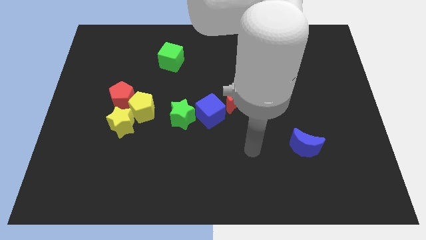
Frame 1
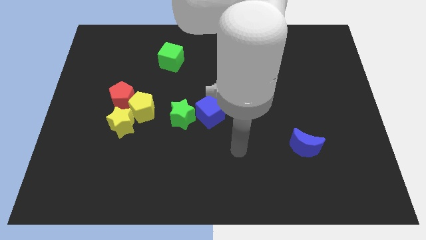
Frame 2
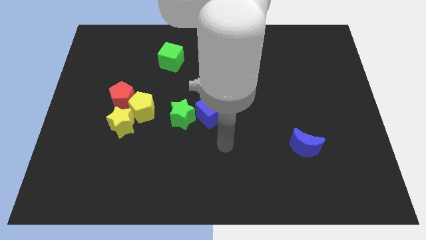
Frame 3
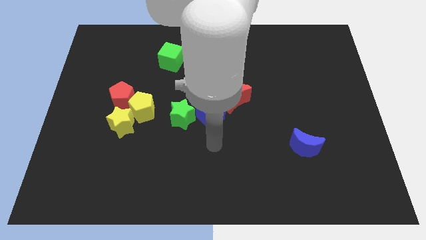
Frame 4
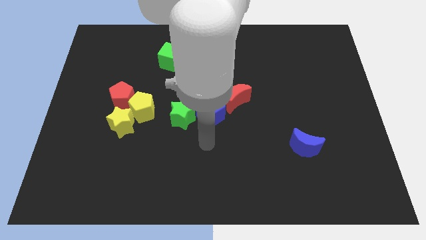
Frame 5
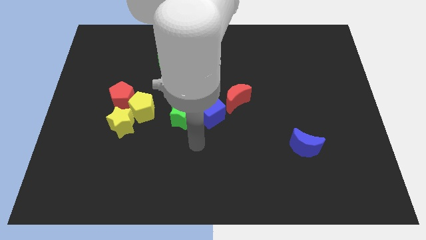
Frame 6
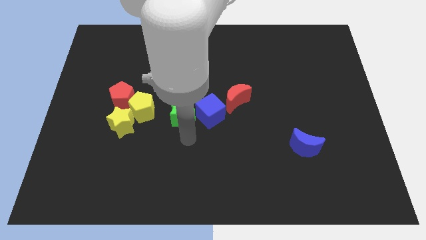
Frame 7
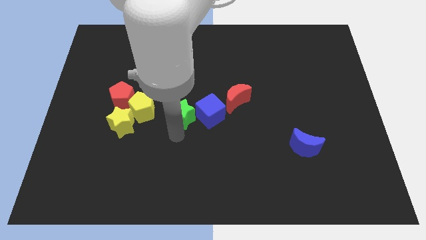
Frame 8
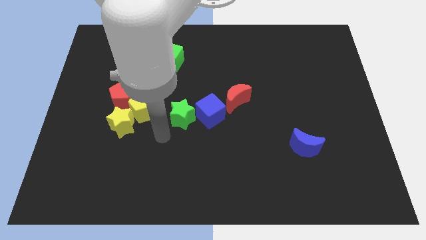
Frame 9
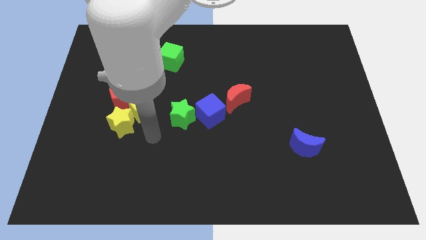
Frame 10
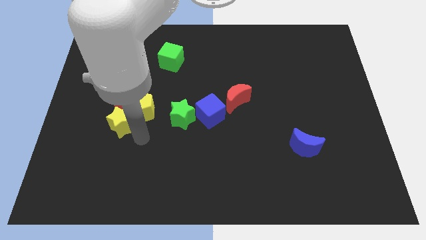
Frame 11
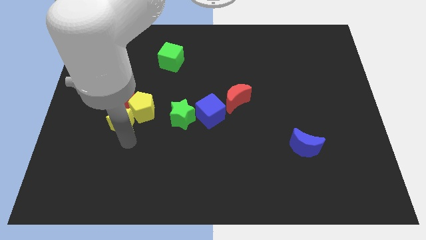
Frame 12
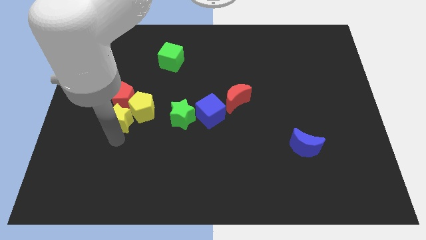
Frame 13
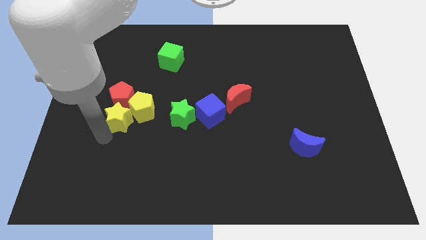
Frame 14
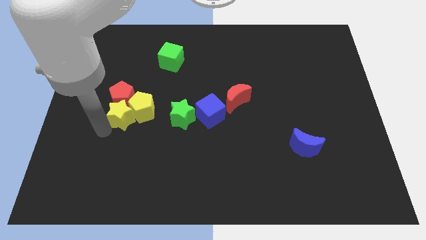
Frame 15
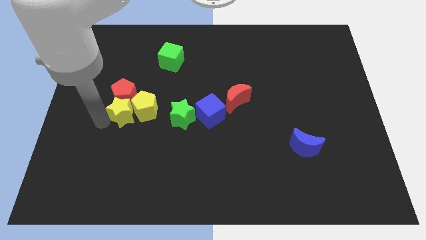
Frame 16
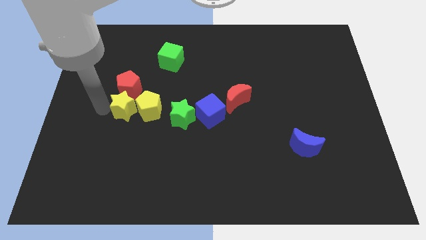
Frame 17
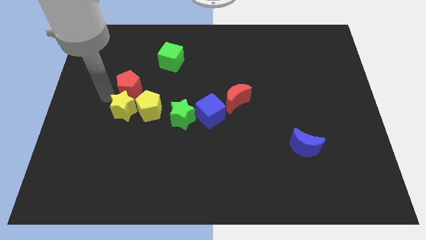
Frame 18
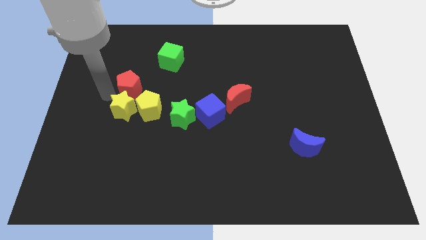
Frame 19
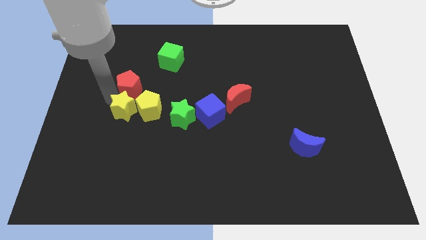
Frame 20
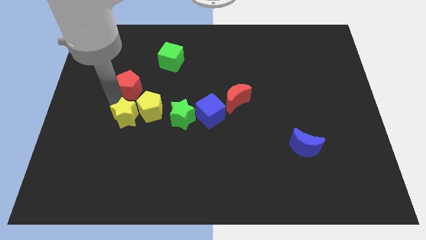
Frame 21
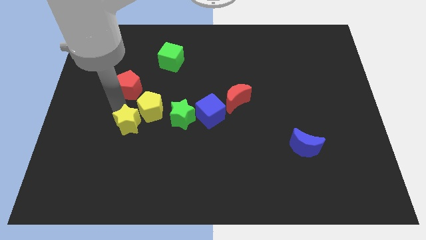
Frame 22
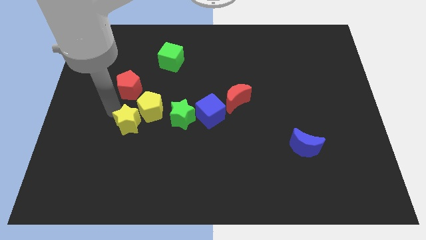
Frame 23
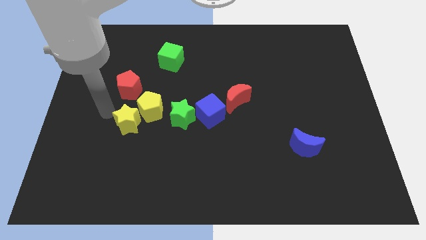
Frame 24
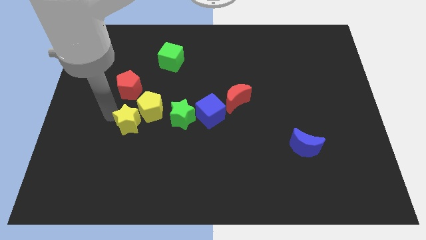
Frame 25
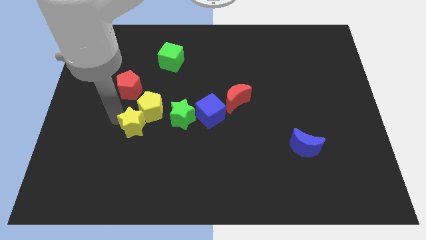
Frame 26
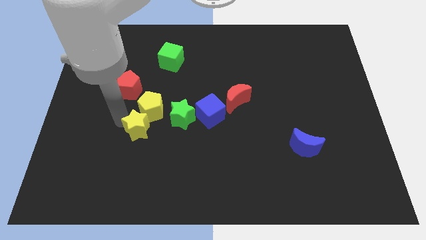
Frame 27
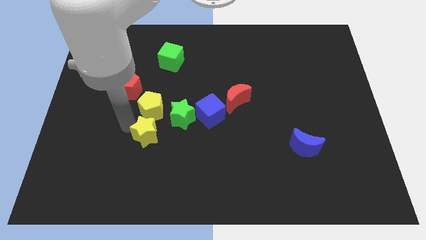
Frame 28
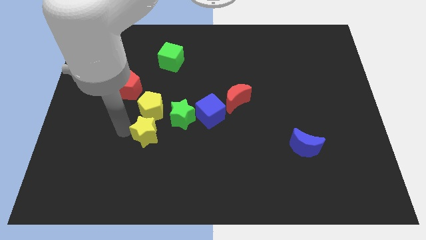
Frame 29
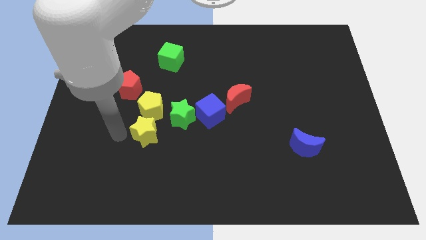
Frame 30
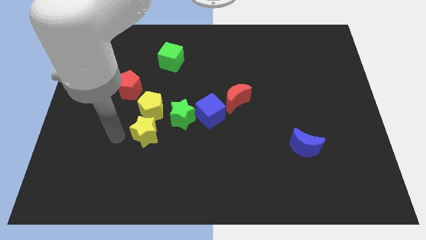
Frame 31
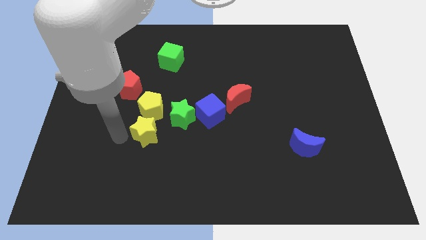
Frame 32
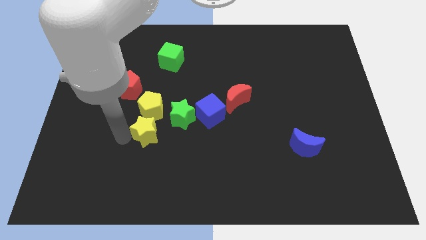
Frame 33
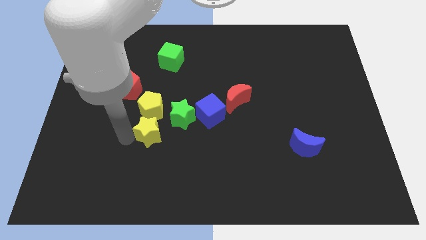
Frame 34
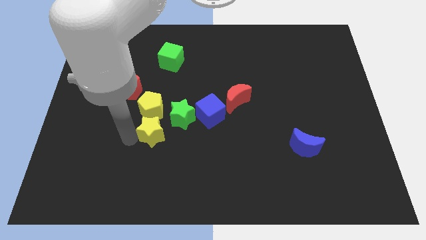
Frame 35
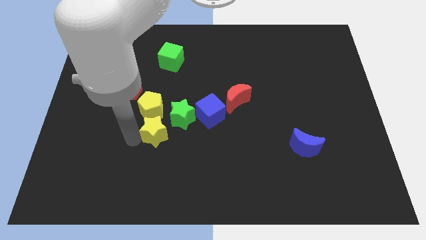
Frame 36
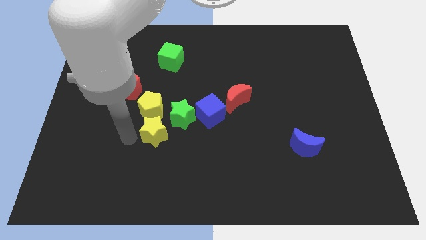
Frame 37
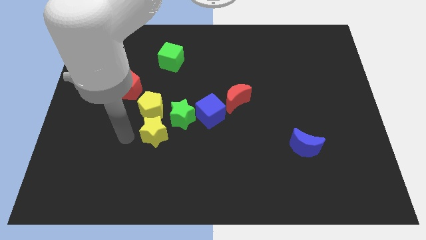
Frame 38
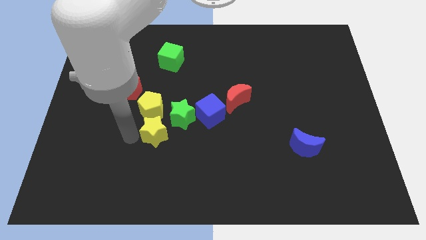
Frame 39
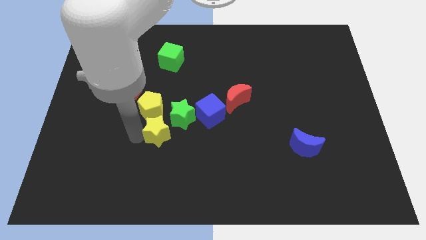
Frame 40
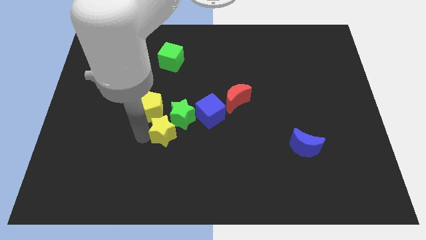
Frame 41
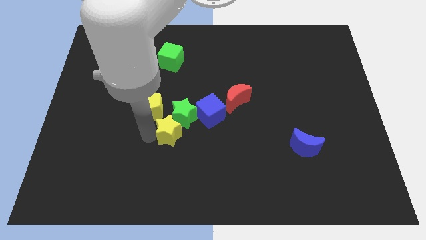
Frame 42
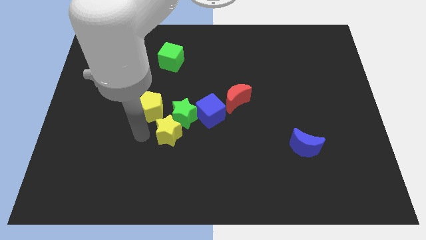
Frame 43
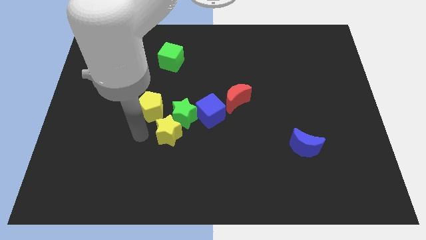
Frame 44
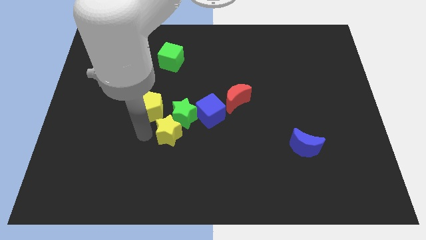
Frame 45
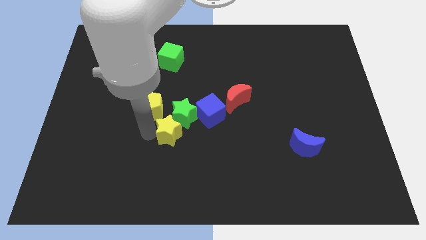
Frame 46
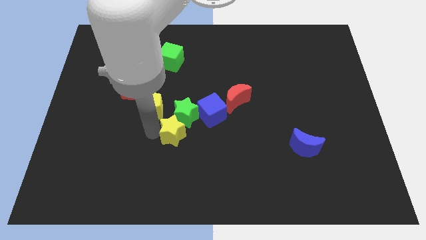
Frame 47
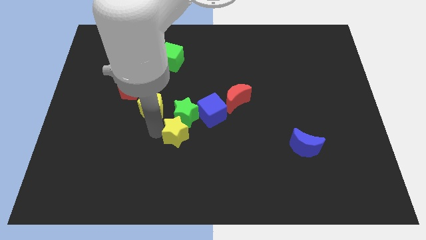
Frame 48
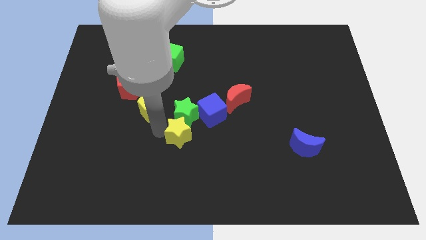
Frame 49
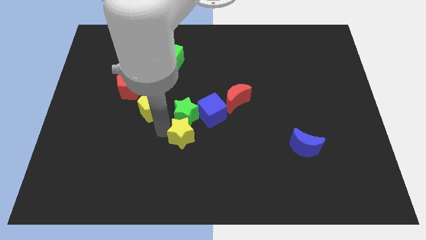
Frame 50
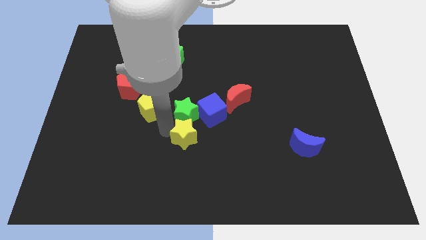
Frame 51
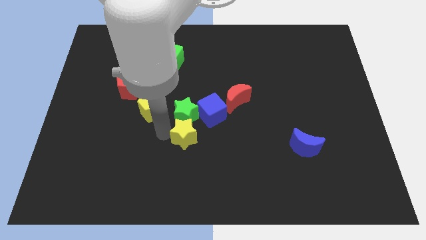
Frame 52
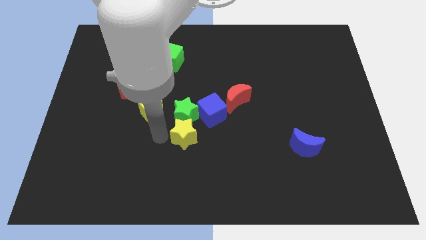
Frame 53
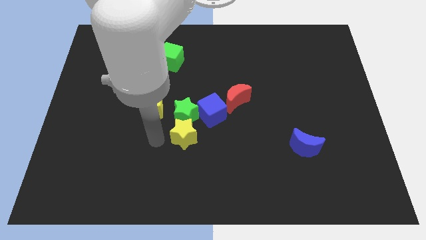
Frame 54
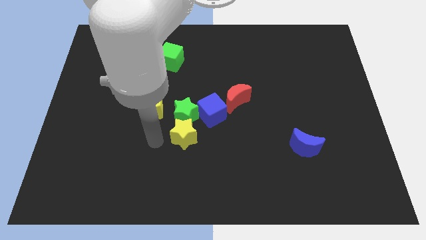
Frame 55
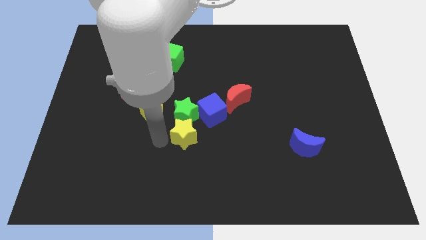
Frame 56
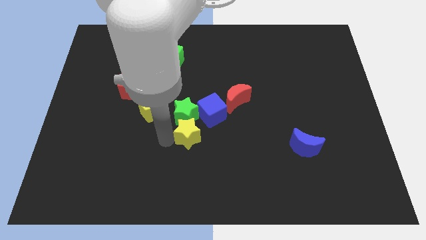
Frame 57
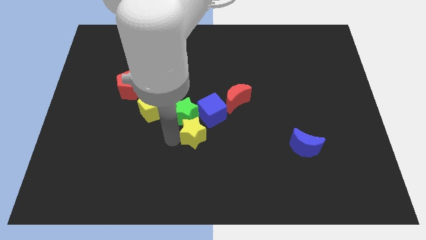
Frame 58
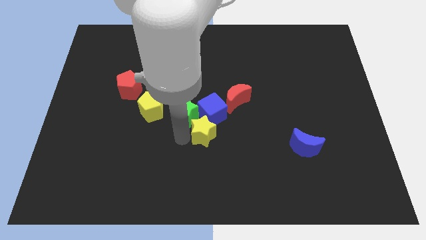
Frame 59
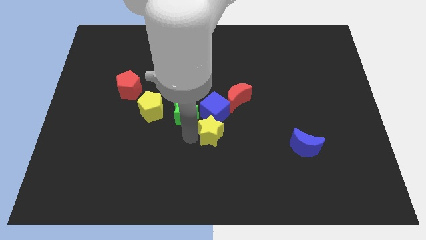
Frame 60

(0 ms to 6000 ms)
move the yellow star diagonally down and to the right of the blue cube

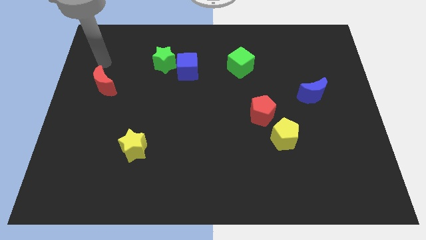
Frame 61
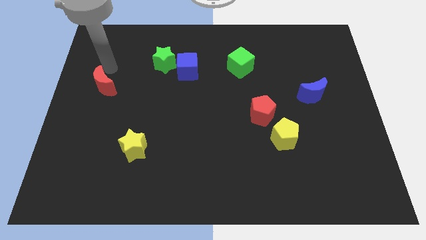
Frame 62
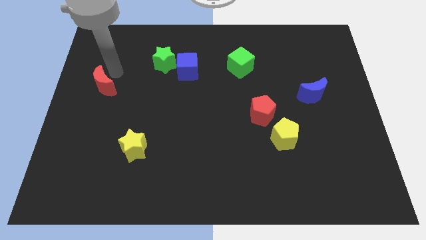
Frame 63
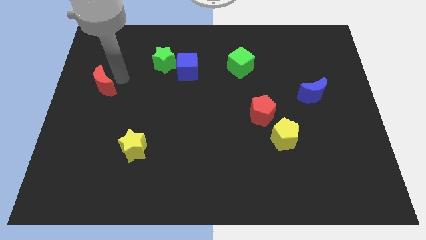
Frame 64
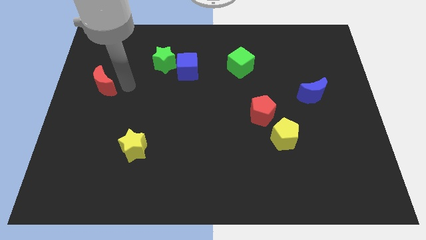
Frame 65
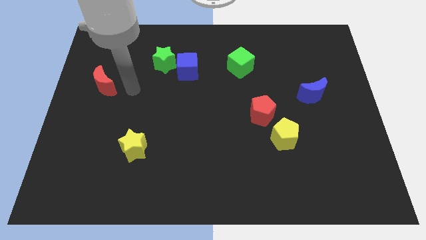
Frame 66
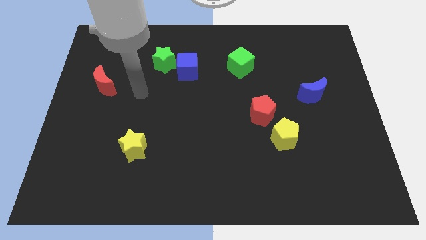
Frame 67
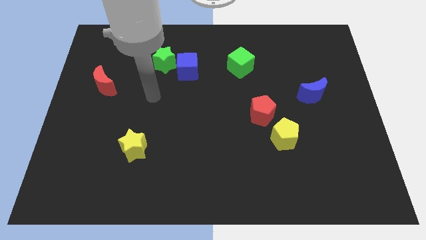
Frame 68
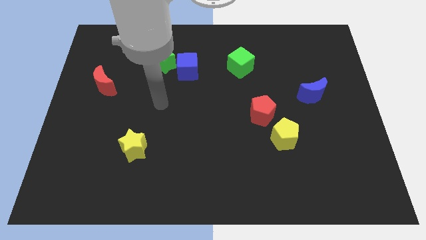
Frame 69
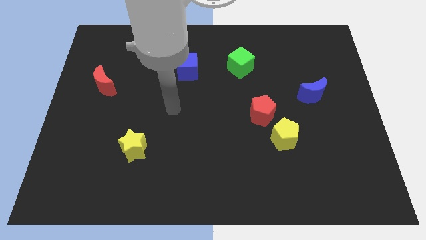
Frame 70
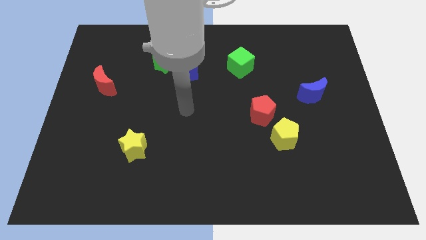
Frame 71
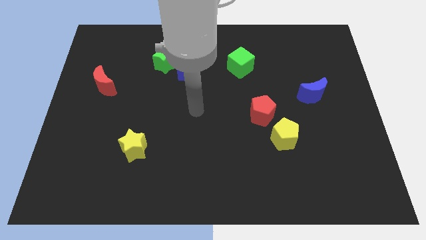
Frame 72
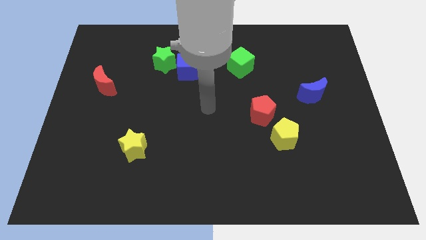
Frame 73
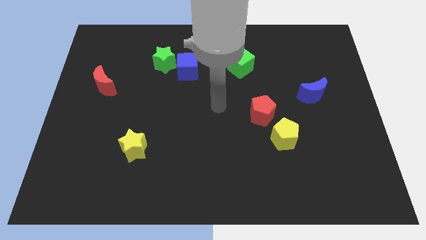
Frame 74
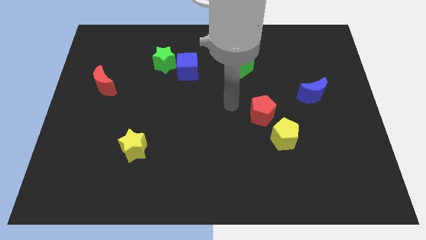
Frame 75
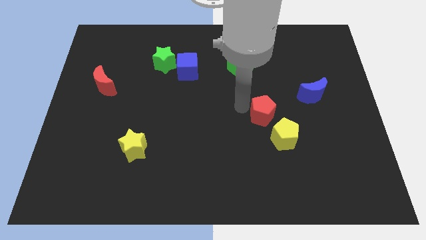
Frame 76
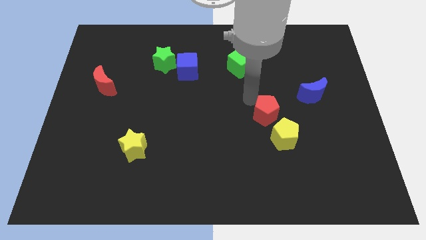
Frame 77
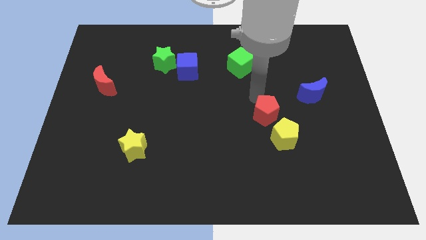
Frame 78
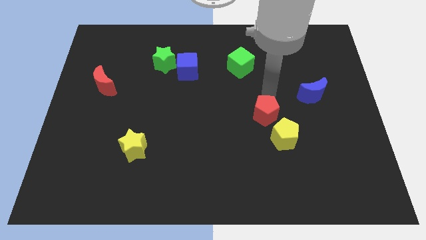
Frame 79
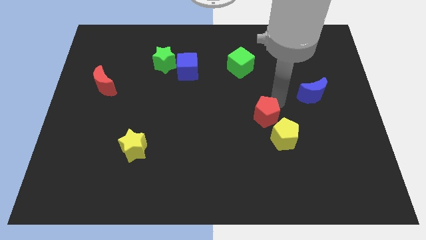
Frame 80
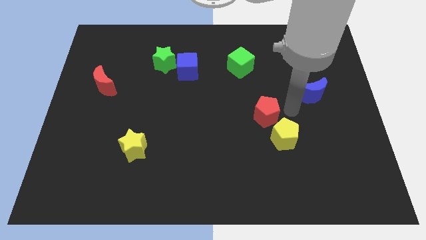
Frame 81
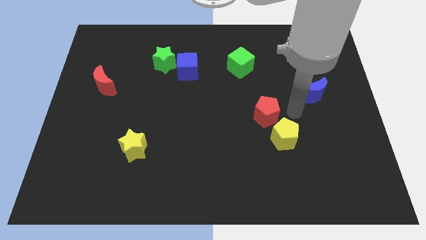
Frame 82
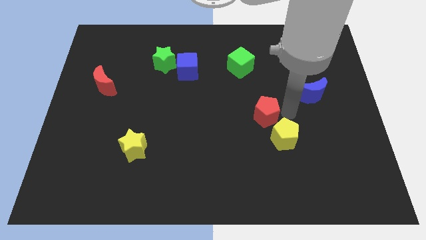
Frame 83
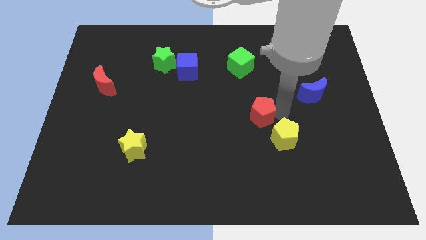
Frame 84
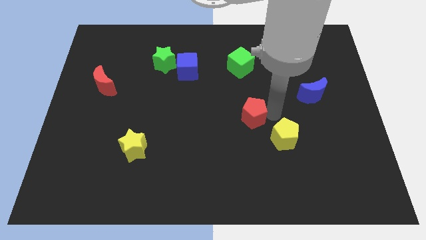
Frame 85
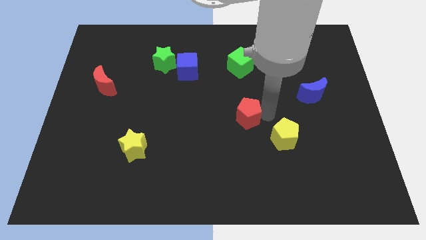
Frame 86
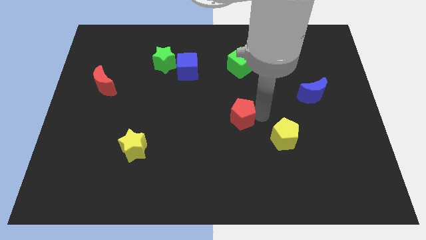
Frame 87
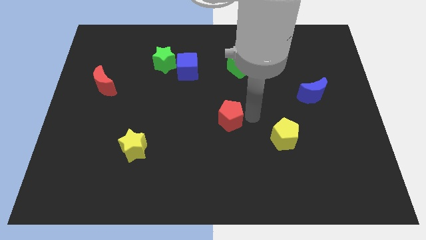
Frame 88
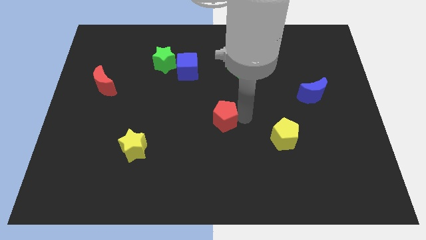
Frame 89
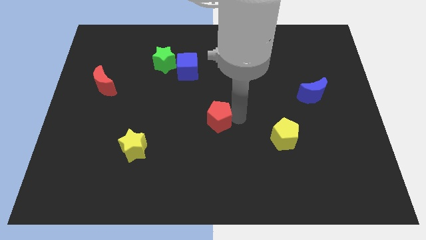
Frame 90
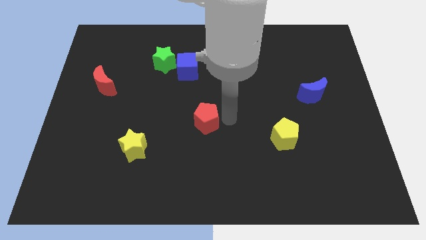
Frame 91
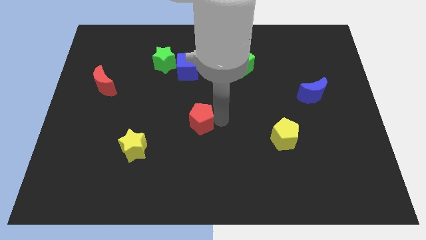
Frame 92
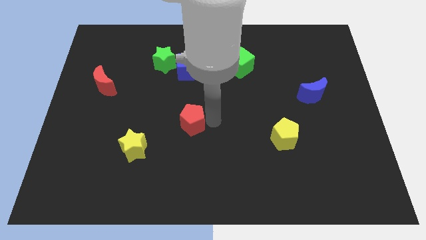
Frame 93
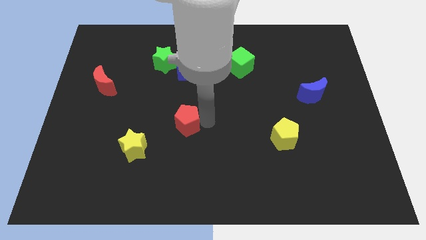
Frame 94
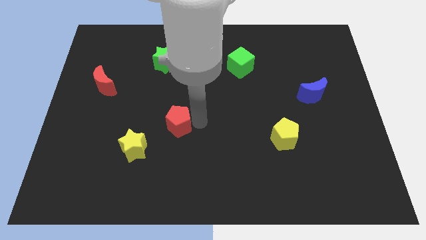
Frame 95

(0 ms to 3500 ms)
put the red pentagon to the top right of the yellow star
